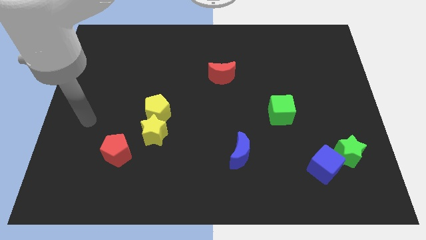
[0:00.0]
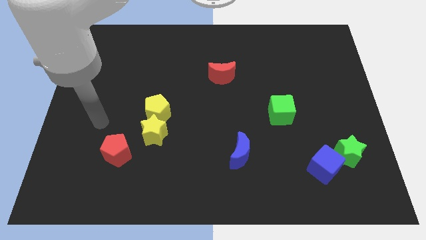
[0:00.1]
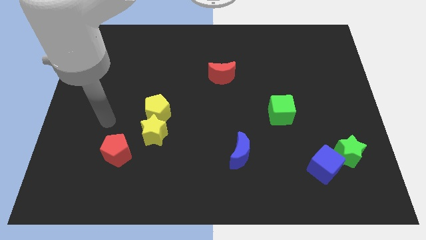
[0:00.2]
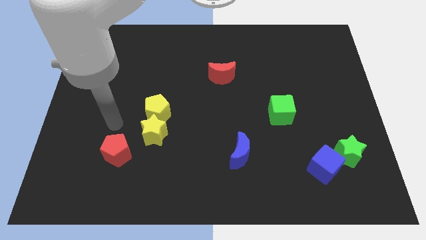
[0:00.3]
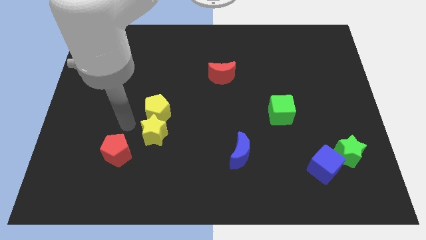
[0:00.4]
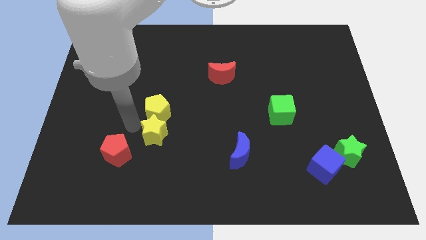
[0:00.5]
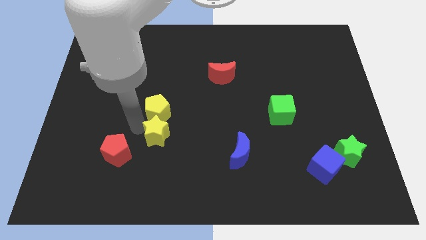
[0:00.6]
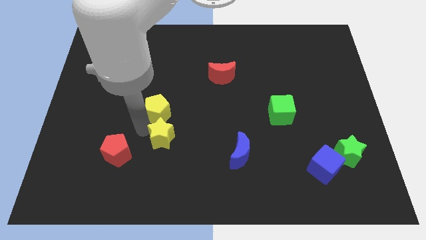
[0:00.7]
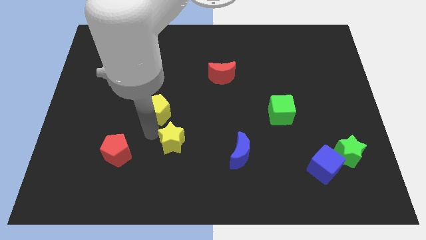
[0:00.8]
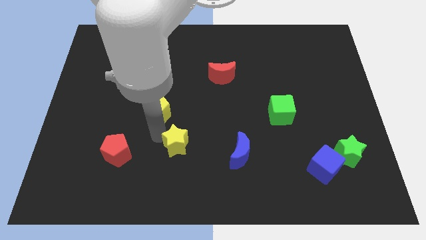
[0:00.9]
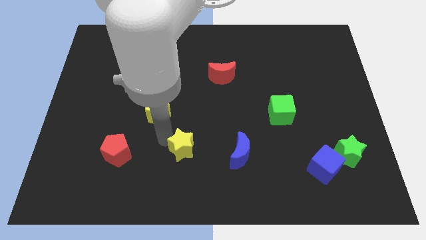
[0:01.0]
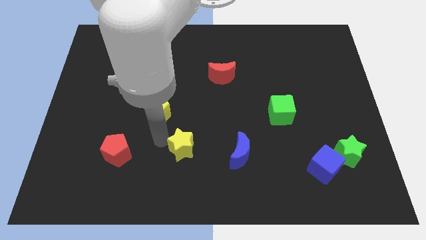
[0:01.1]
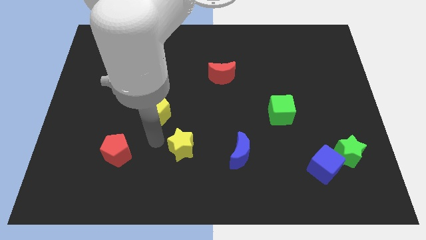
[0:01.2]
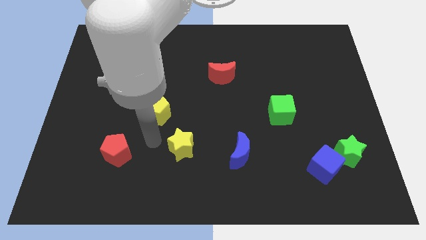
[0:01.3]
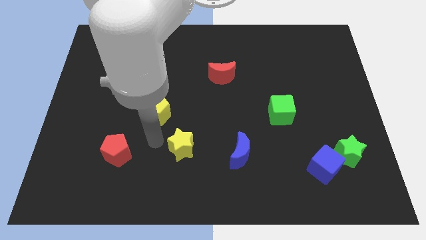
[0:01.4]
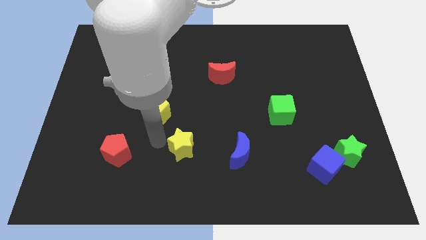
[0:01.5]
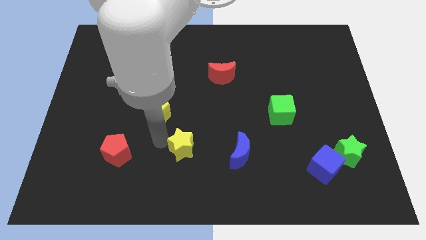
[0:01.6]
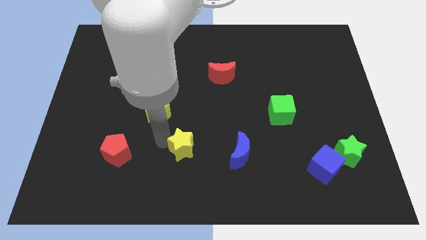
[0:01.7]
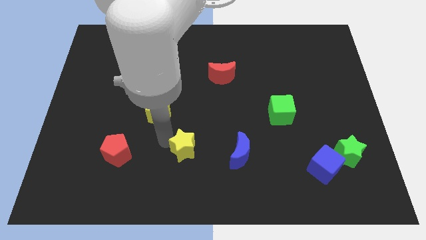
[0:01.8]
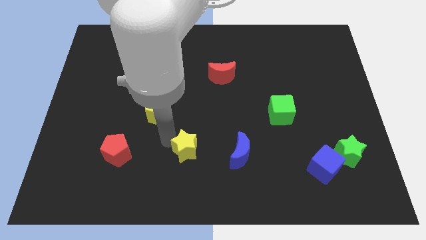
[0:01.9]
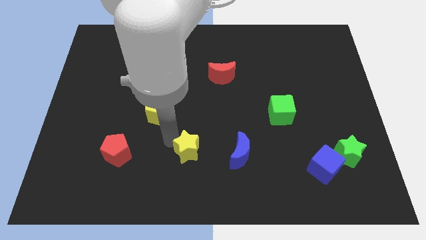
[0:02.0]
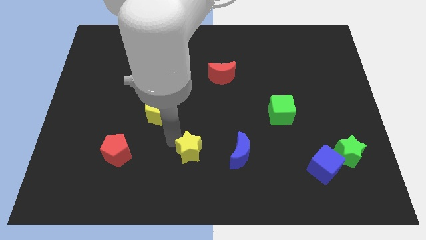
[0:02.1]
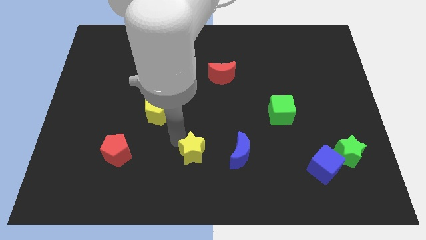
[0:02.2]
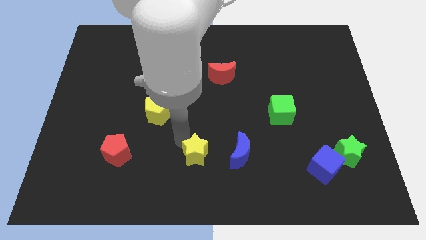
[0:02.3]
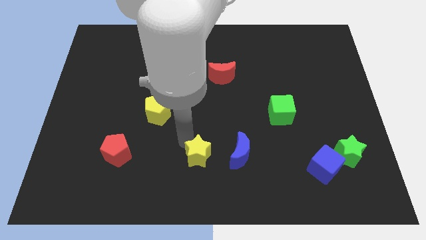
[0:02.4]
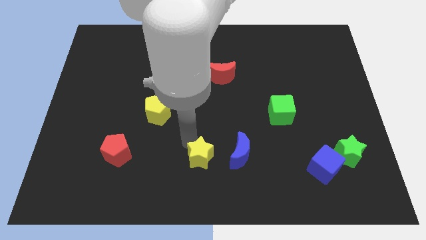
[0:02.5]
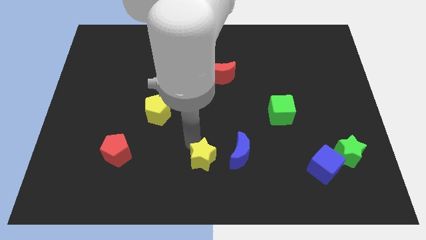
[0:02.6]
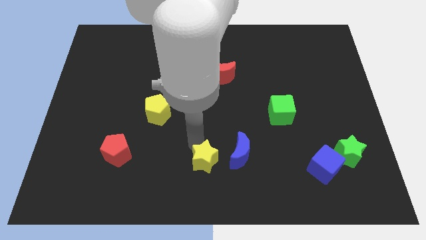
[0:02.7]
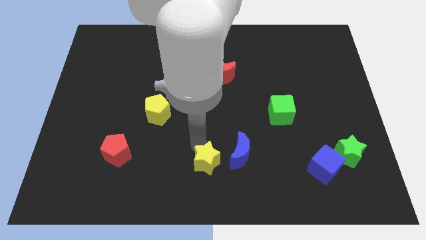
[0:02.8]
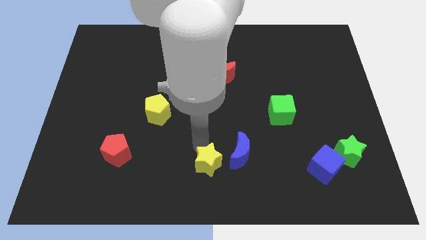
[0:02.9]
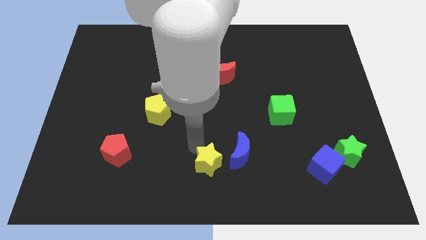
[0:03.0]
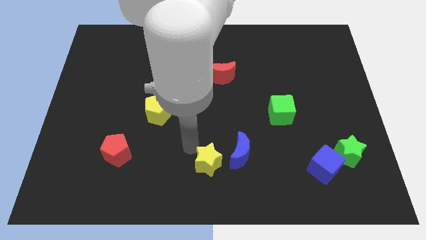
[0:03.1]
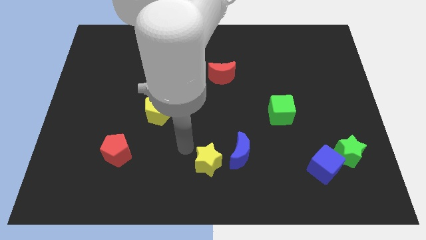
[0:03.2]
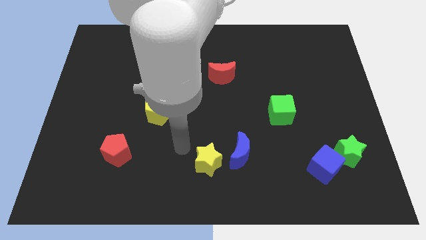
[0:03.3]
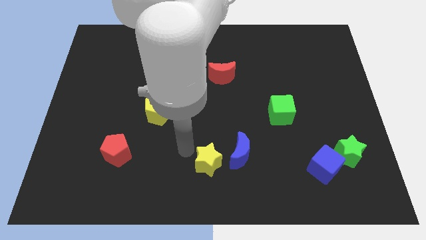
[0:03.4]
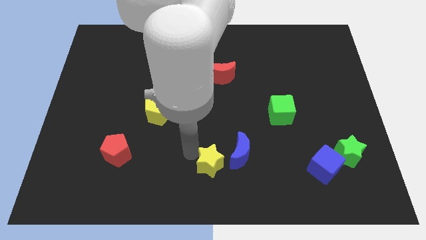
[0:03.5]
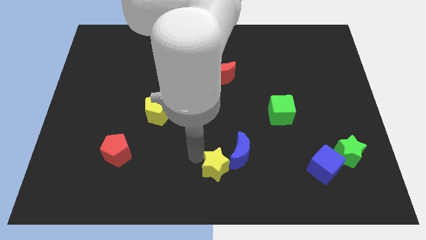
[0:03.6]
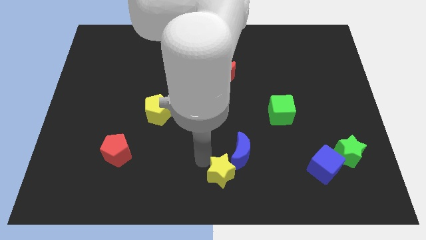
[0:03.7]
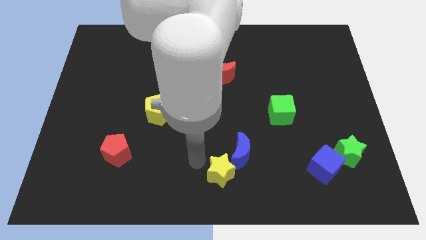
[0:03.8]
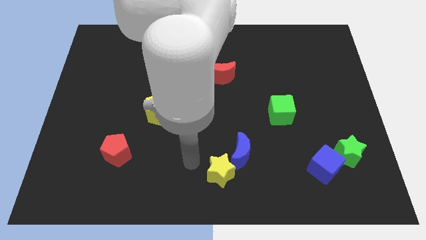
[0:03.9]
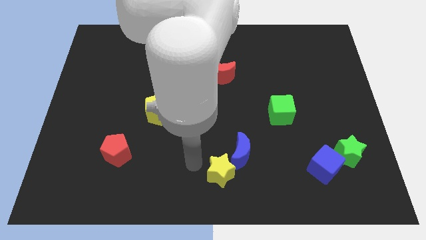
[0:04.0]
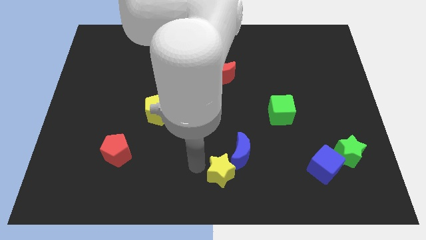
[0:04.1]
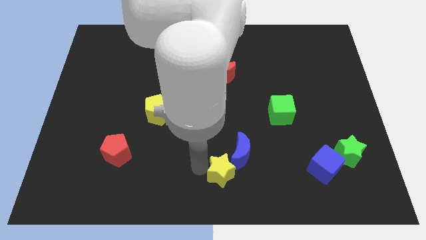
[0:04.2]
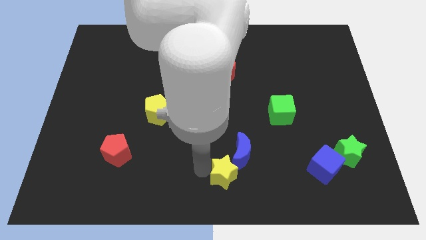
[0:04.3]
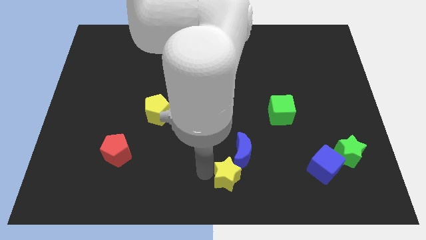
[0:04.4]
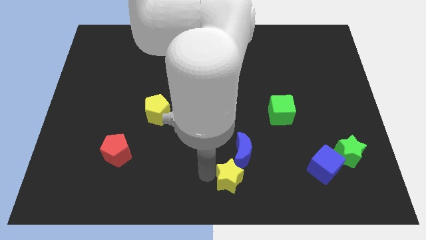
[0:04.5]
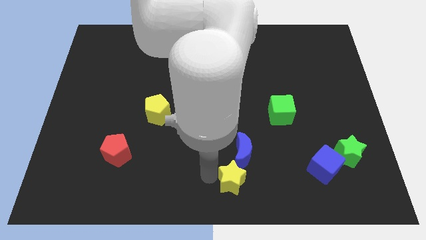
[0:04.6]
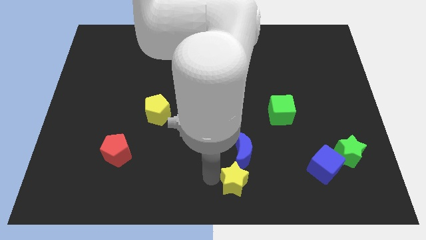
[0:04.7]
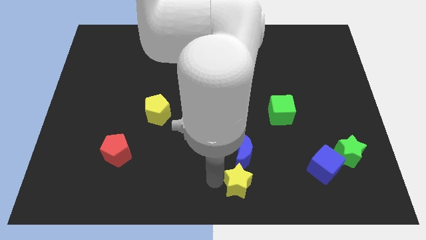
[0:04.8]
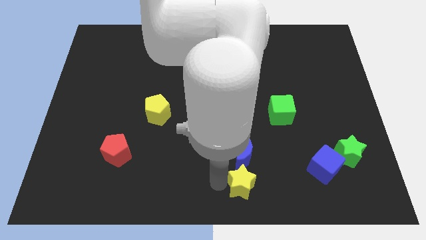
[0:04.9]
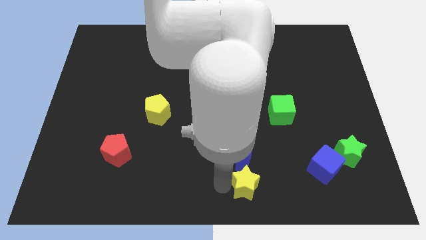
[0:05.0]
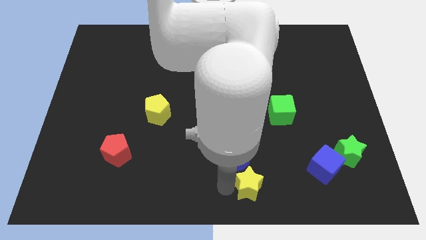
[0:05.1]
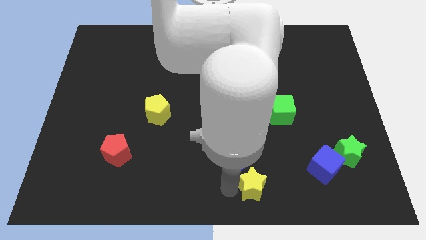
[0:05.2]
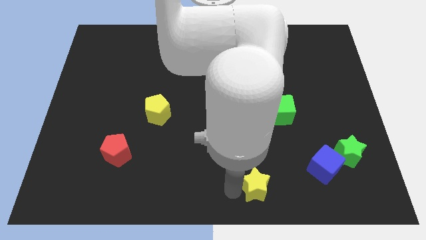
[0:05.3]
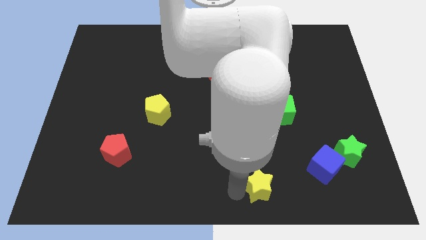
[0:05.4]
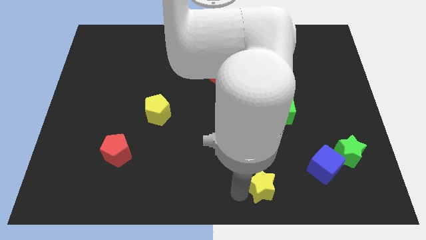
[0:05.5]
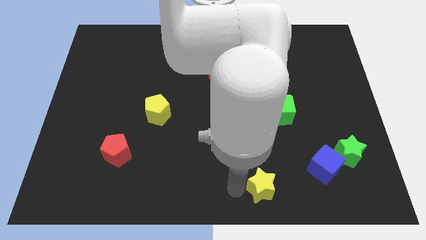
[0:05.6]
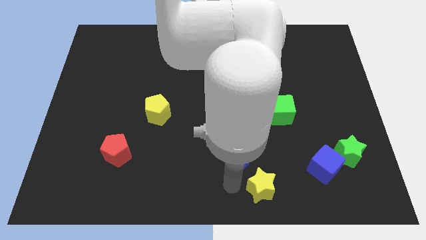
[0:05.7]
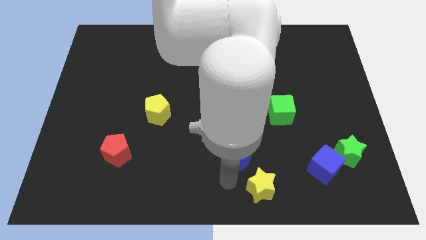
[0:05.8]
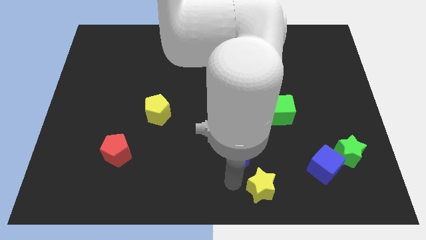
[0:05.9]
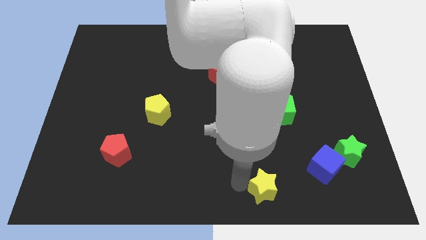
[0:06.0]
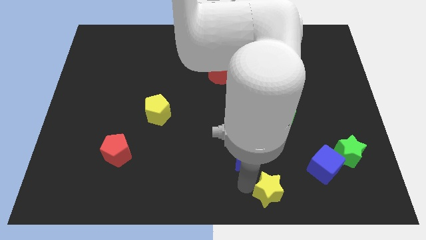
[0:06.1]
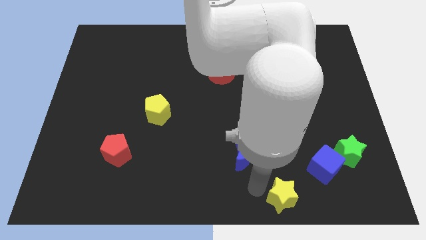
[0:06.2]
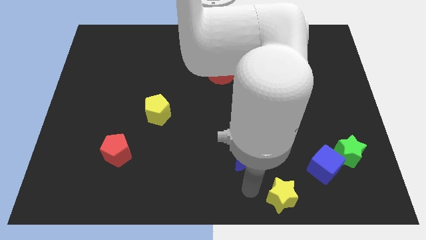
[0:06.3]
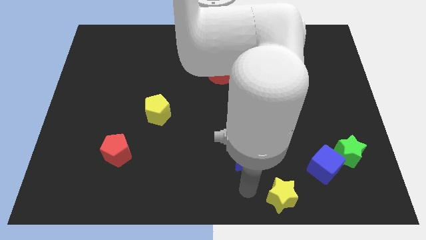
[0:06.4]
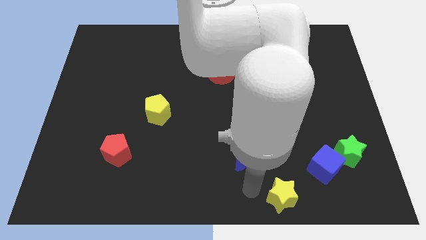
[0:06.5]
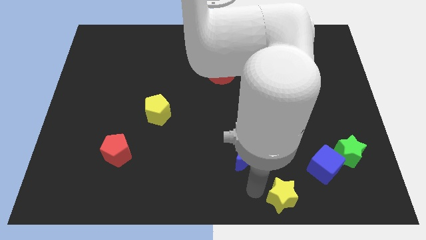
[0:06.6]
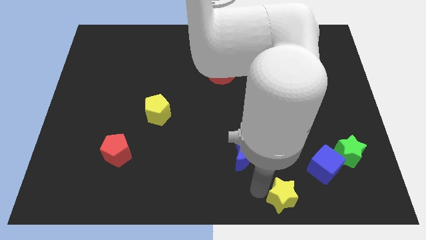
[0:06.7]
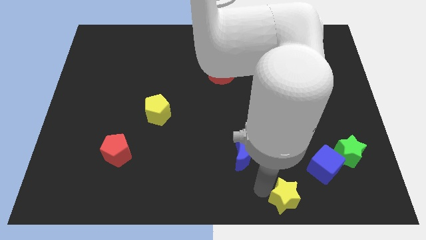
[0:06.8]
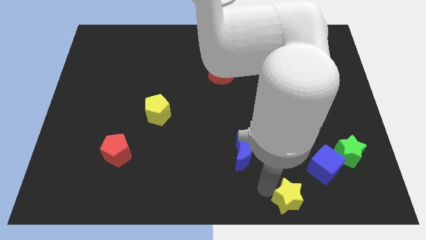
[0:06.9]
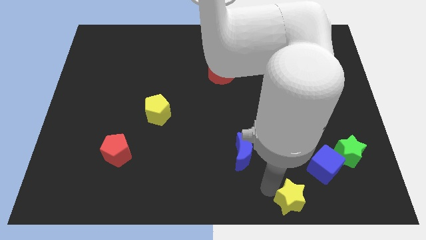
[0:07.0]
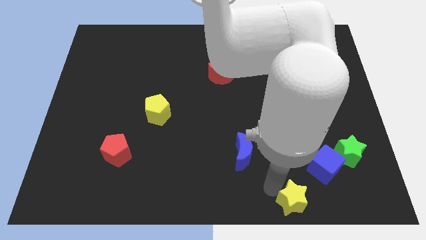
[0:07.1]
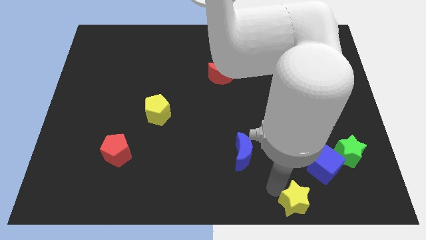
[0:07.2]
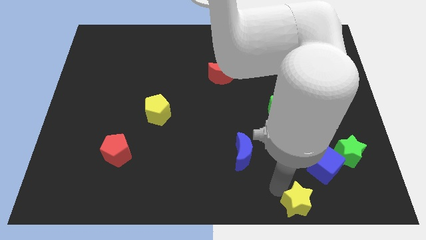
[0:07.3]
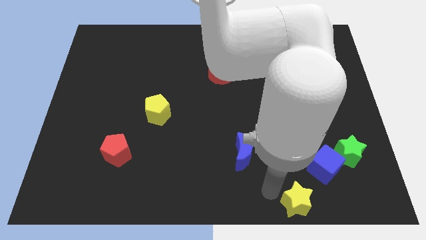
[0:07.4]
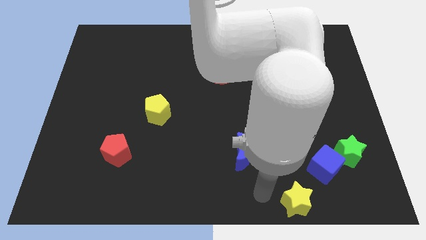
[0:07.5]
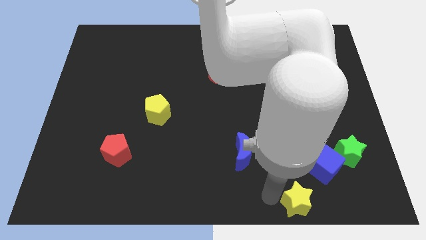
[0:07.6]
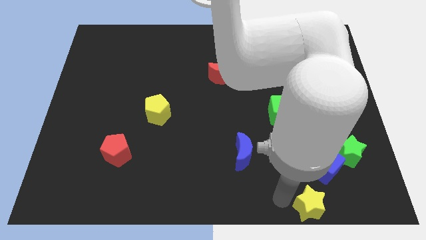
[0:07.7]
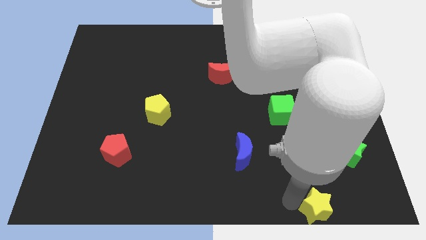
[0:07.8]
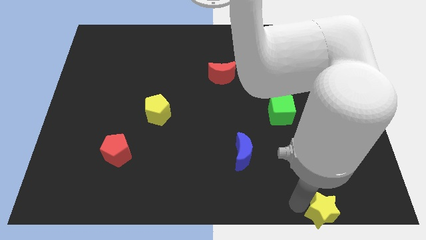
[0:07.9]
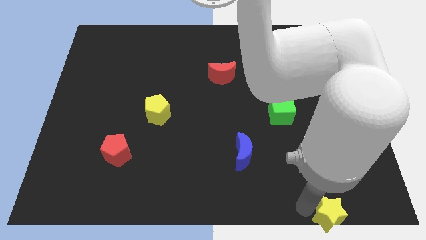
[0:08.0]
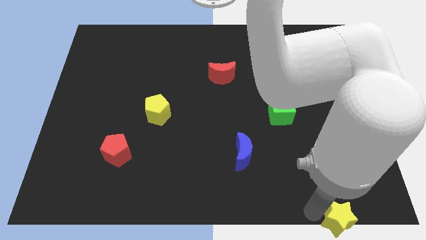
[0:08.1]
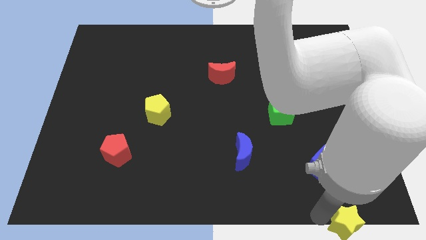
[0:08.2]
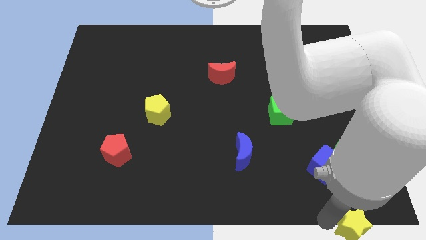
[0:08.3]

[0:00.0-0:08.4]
slide the yellow star to the bottom right
